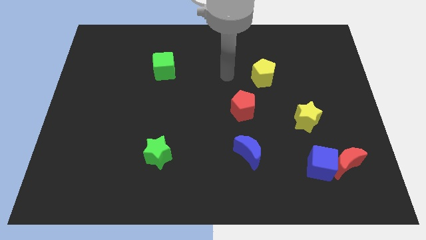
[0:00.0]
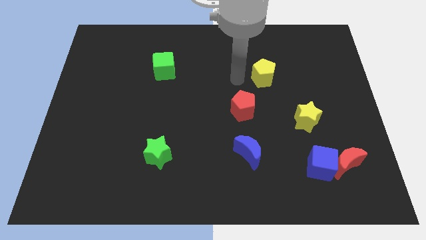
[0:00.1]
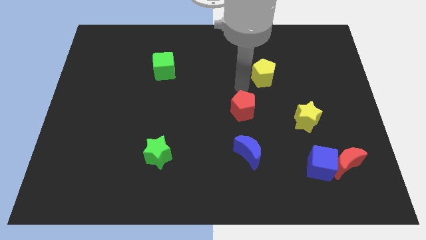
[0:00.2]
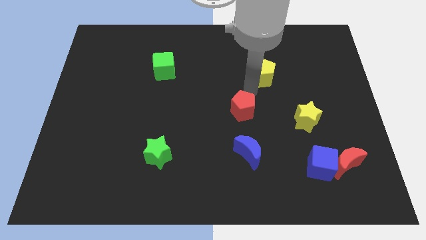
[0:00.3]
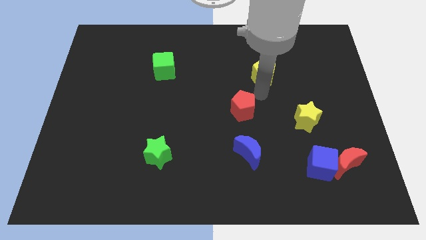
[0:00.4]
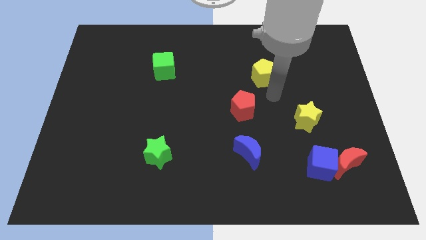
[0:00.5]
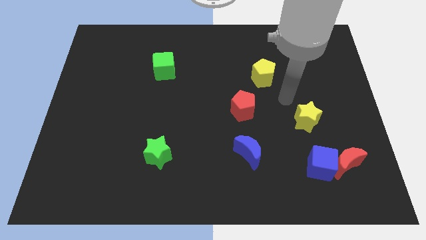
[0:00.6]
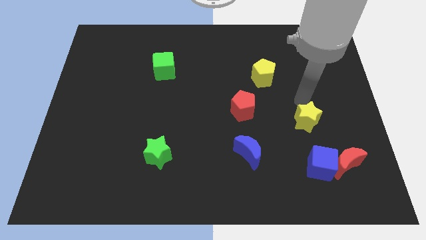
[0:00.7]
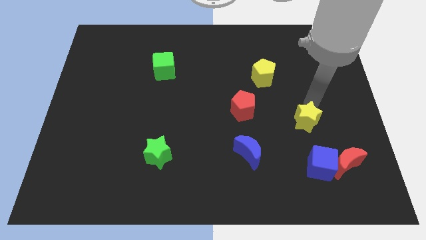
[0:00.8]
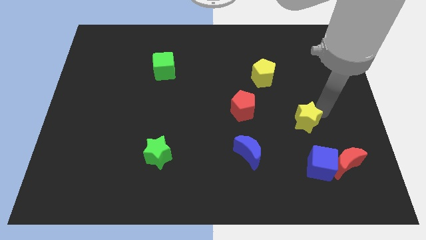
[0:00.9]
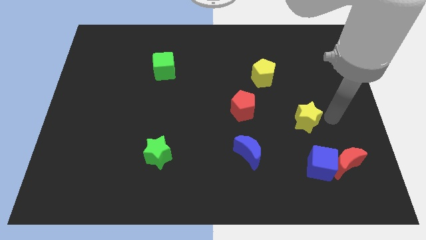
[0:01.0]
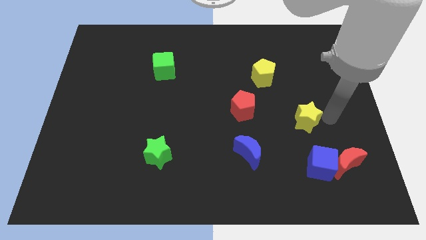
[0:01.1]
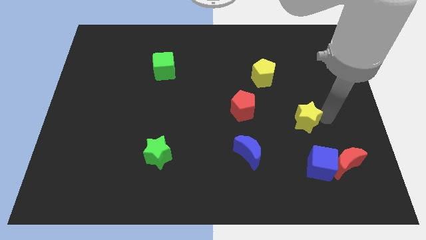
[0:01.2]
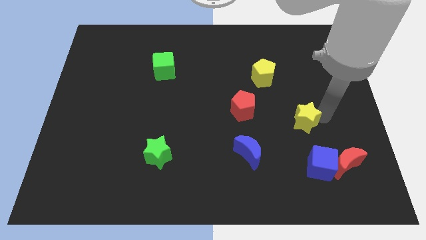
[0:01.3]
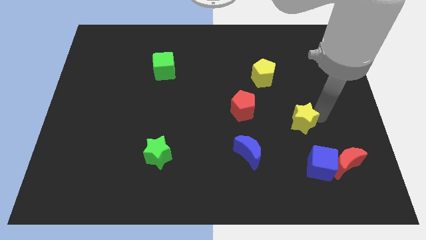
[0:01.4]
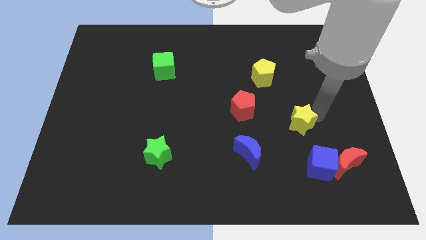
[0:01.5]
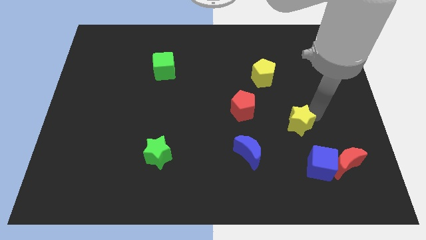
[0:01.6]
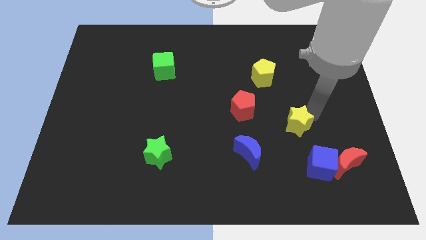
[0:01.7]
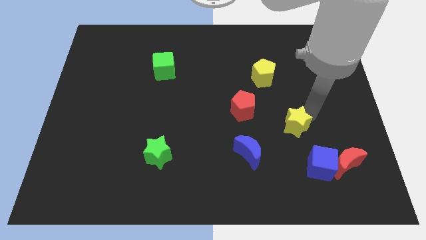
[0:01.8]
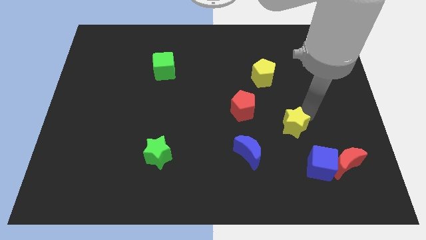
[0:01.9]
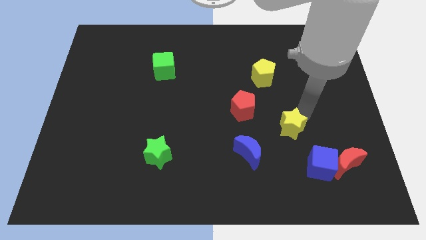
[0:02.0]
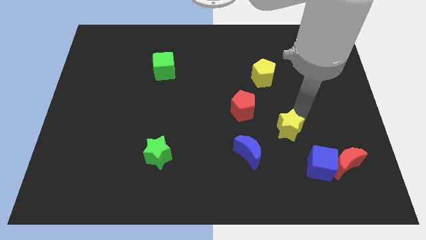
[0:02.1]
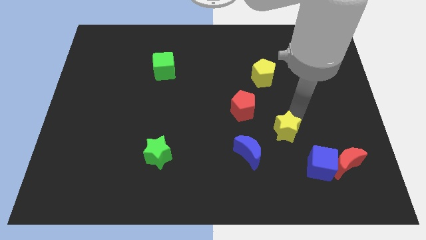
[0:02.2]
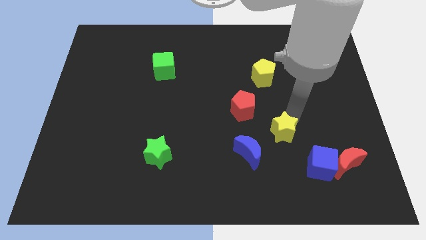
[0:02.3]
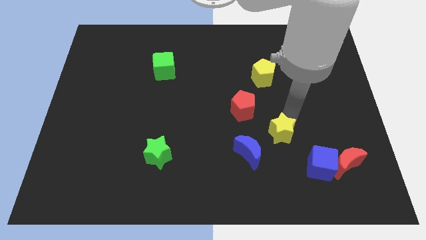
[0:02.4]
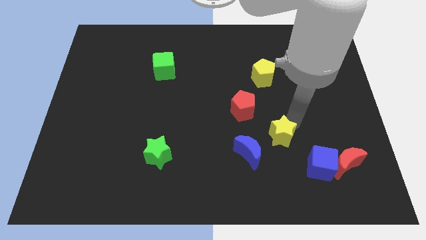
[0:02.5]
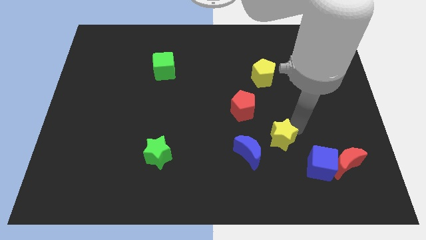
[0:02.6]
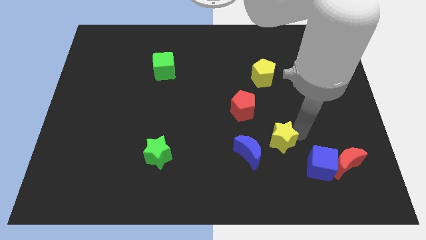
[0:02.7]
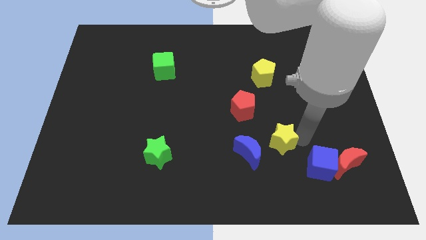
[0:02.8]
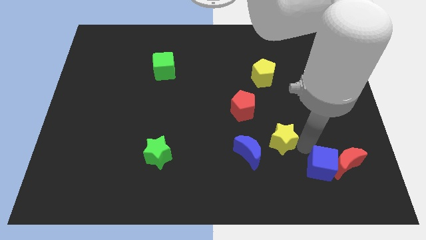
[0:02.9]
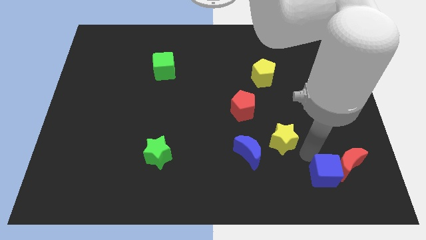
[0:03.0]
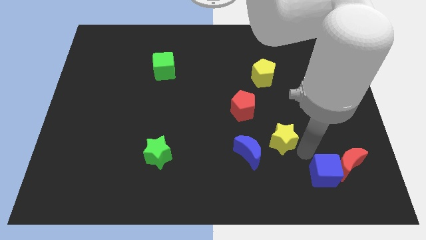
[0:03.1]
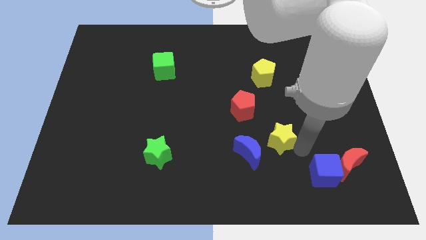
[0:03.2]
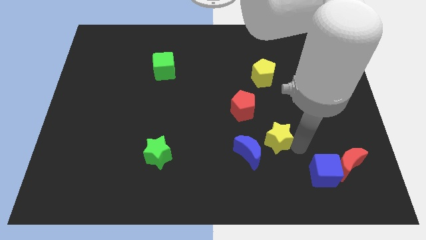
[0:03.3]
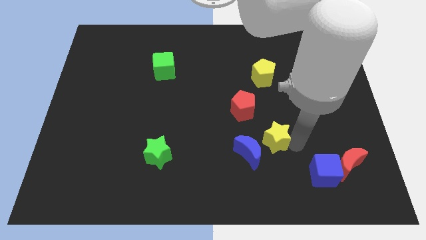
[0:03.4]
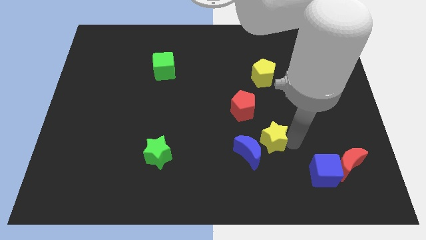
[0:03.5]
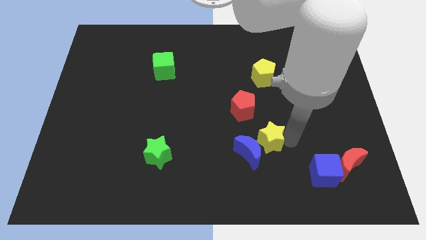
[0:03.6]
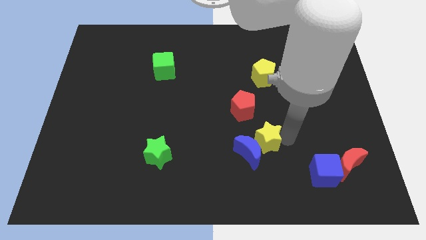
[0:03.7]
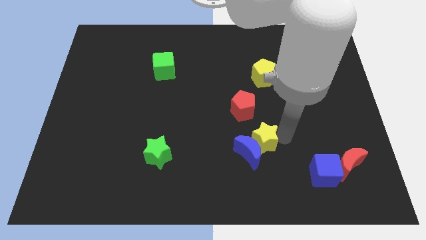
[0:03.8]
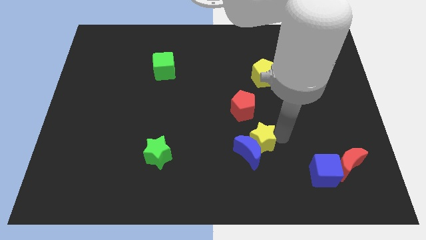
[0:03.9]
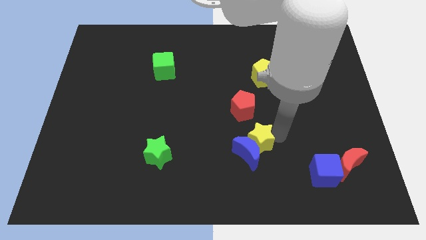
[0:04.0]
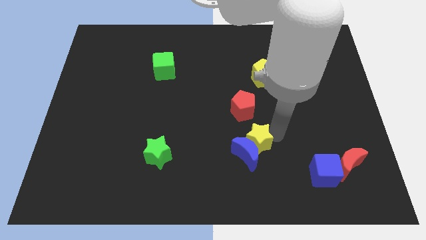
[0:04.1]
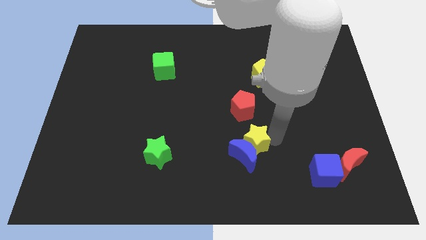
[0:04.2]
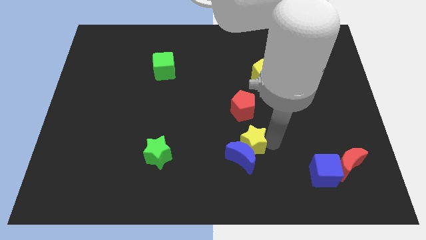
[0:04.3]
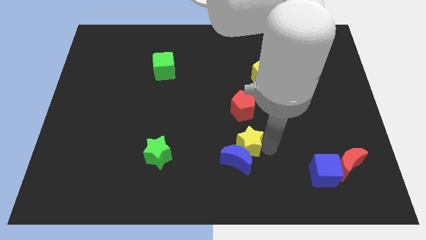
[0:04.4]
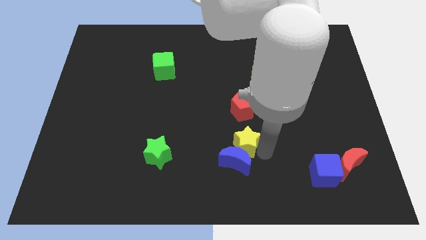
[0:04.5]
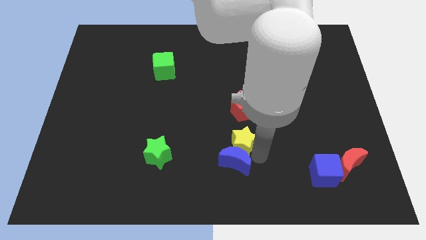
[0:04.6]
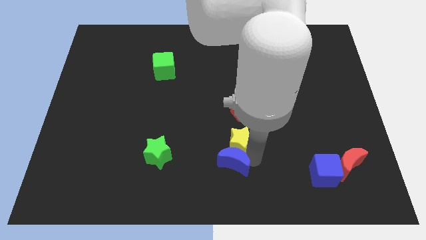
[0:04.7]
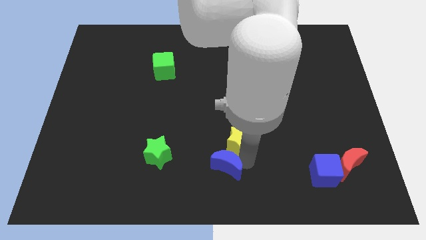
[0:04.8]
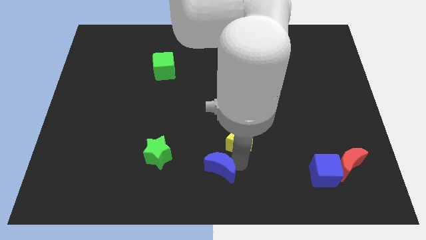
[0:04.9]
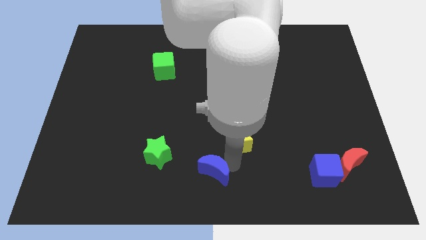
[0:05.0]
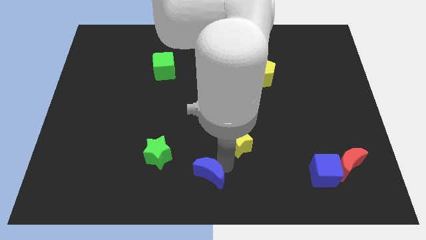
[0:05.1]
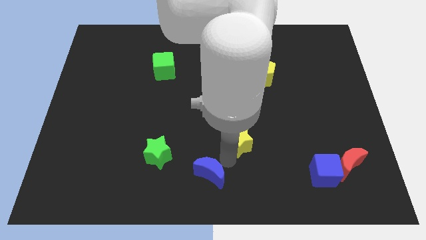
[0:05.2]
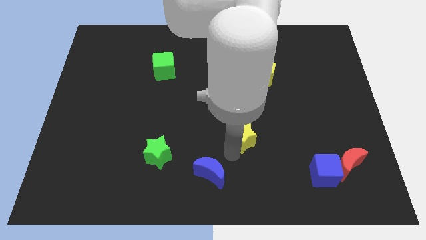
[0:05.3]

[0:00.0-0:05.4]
move the yellow star to the center of the board

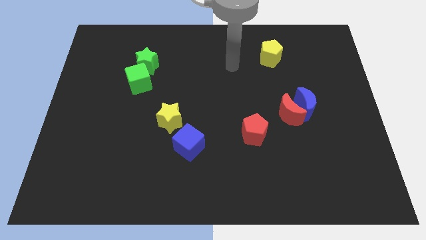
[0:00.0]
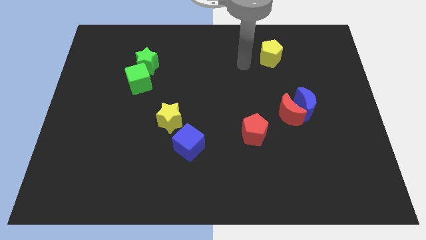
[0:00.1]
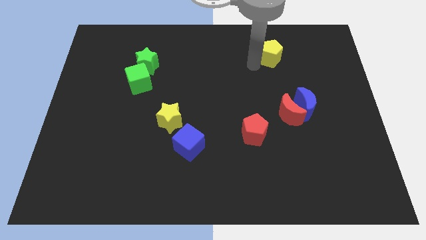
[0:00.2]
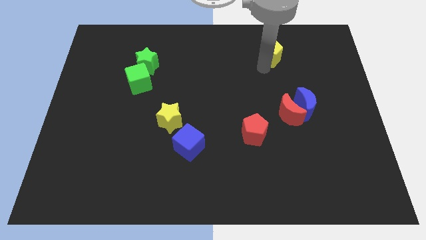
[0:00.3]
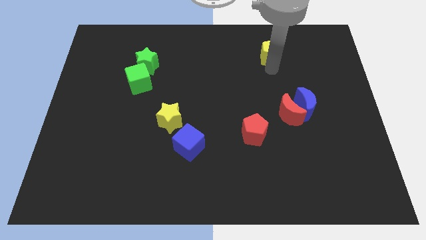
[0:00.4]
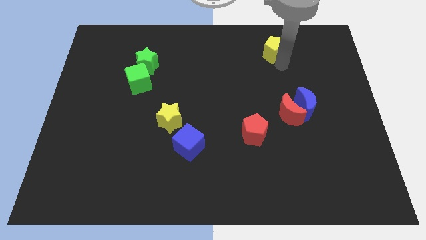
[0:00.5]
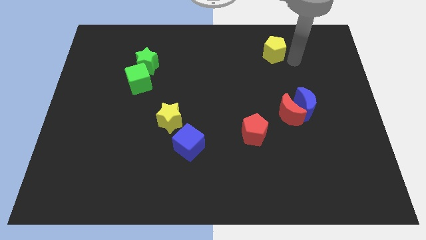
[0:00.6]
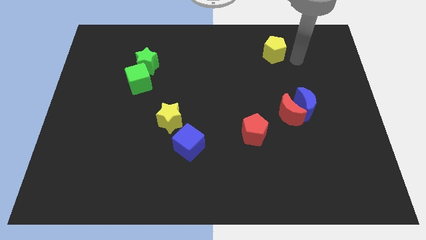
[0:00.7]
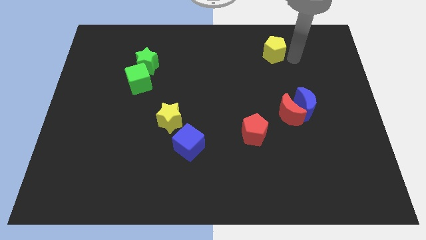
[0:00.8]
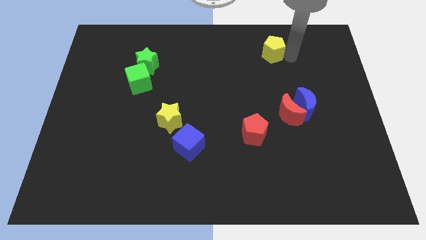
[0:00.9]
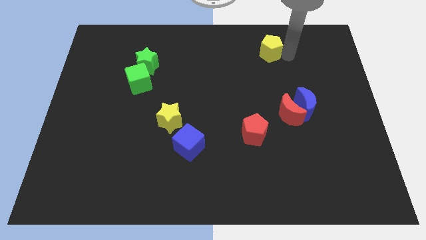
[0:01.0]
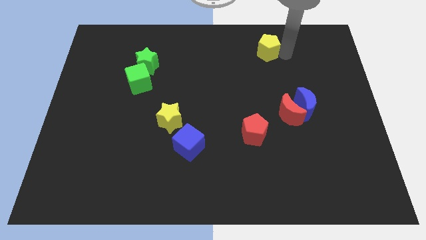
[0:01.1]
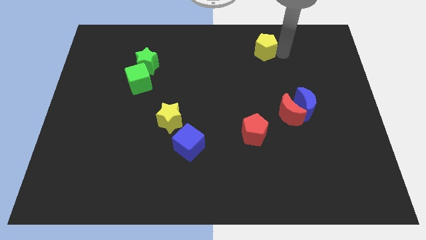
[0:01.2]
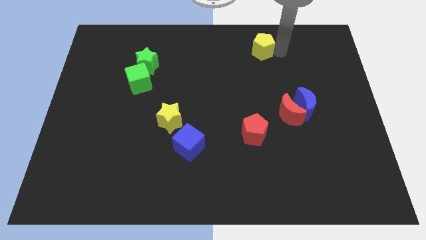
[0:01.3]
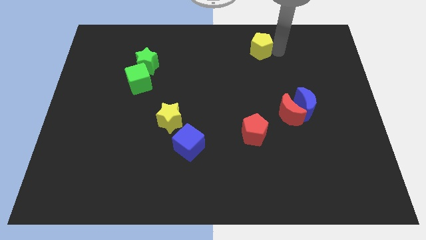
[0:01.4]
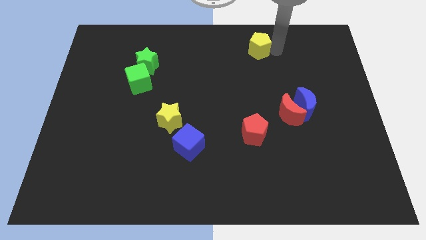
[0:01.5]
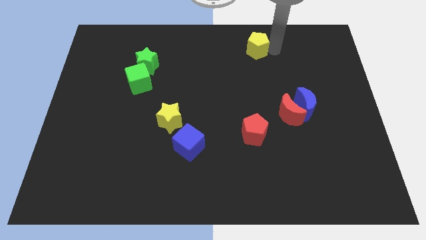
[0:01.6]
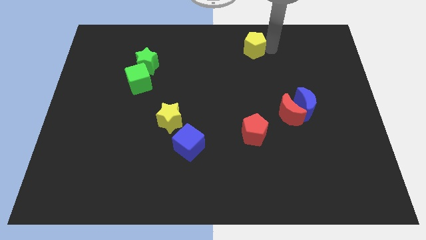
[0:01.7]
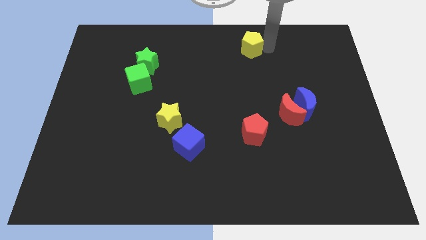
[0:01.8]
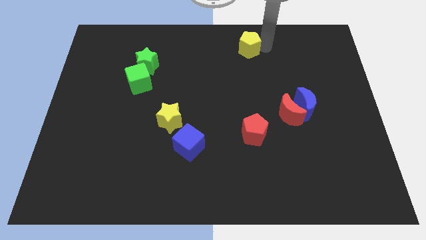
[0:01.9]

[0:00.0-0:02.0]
put the yellow pentagon to the top side
